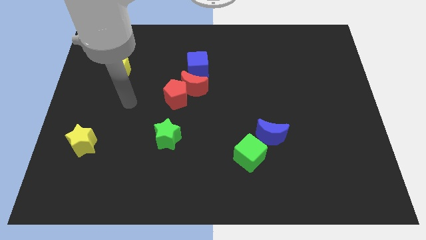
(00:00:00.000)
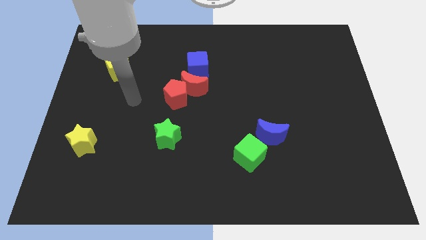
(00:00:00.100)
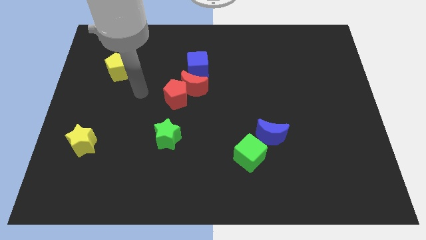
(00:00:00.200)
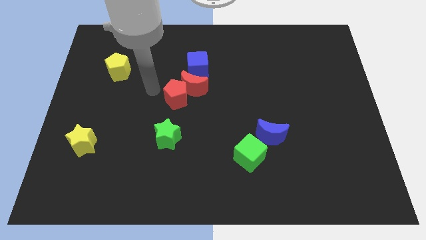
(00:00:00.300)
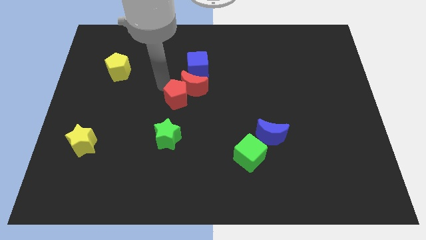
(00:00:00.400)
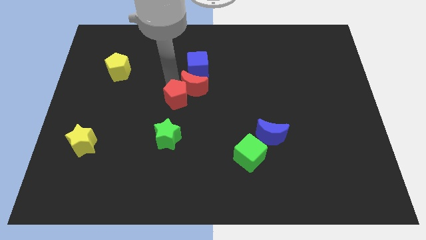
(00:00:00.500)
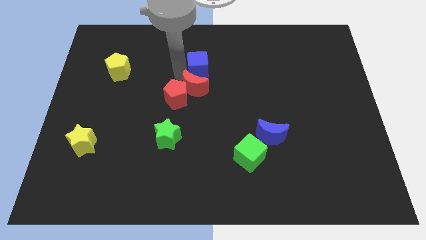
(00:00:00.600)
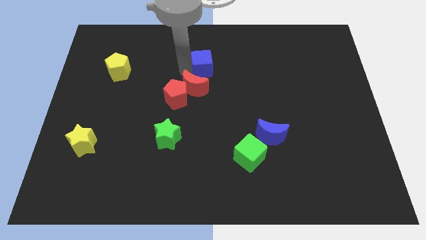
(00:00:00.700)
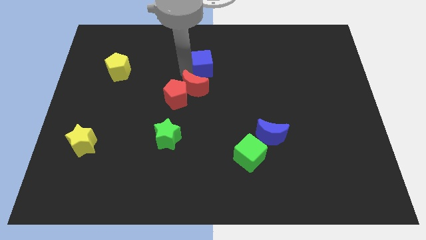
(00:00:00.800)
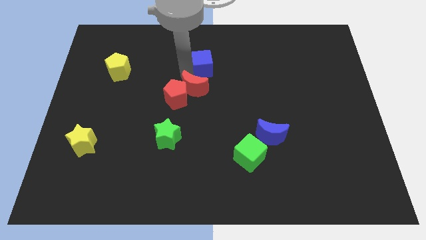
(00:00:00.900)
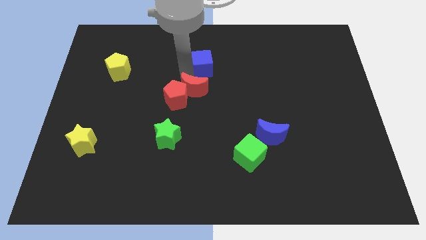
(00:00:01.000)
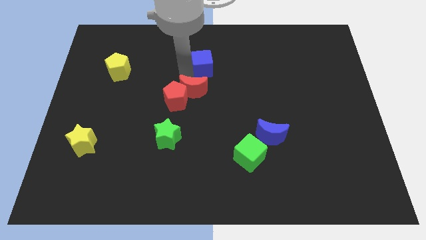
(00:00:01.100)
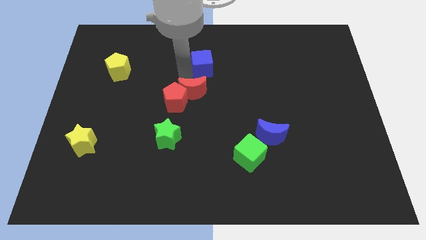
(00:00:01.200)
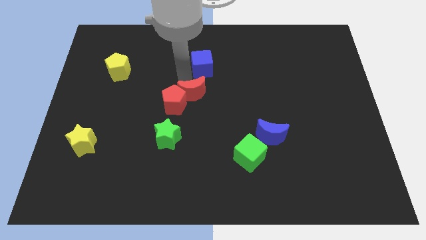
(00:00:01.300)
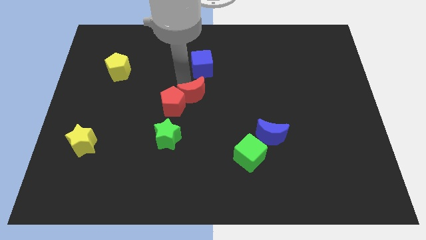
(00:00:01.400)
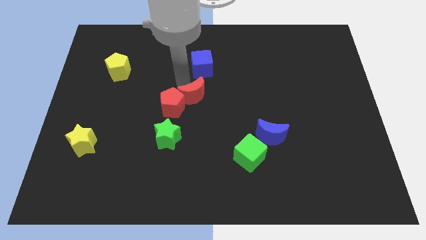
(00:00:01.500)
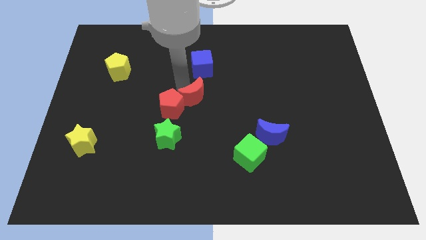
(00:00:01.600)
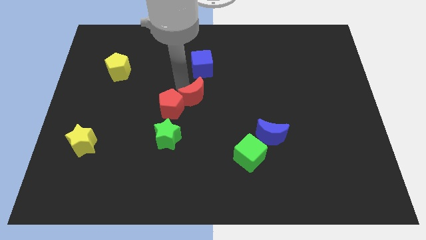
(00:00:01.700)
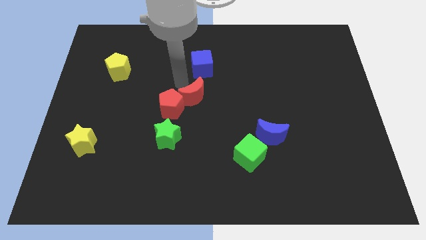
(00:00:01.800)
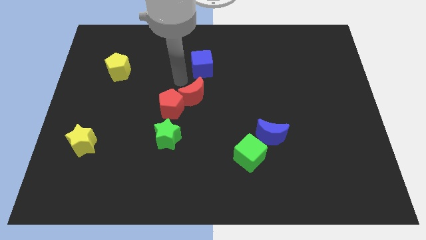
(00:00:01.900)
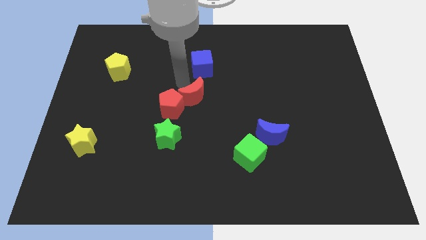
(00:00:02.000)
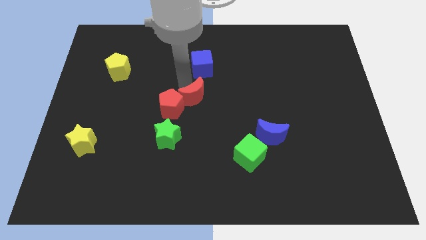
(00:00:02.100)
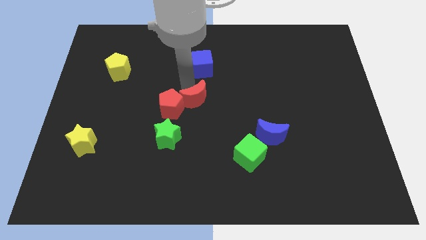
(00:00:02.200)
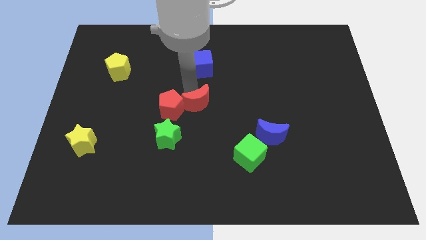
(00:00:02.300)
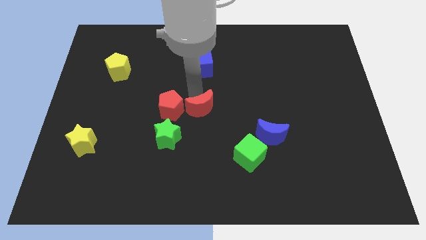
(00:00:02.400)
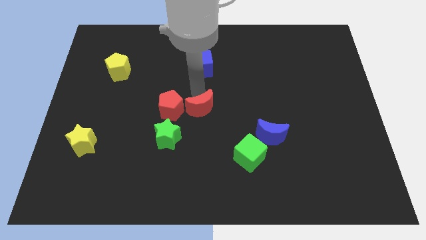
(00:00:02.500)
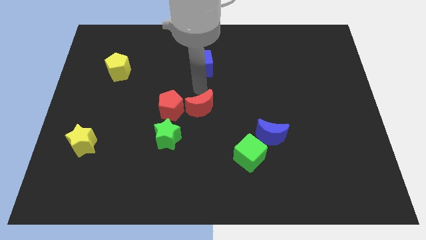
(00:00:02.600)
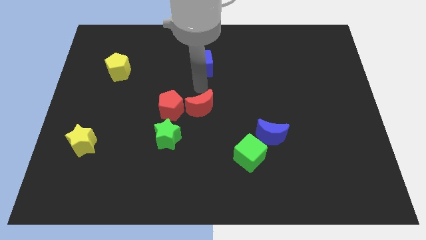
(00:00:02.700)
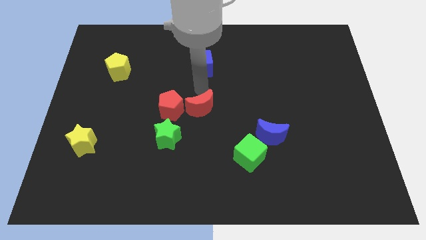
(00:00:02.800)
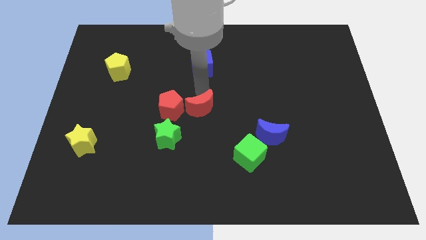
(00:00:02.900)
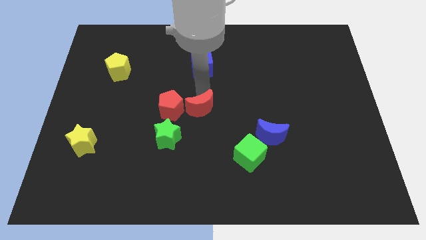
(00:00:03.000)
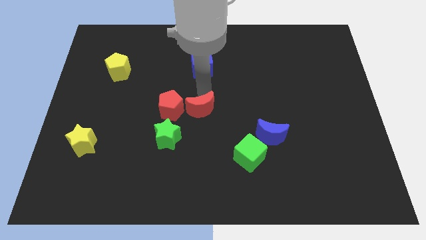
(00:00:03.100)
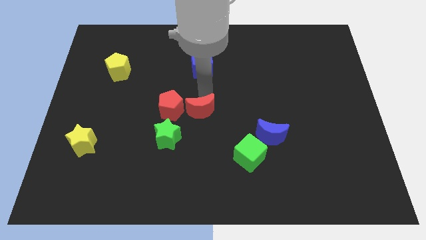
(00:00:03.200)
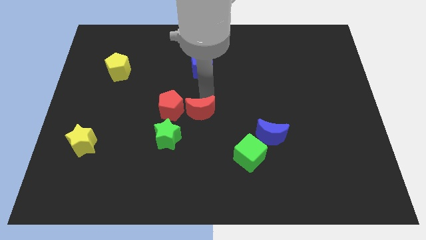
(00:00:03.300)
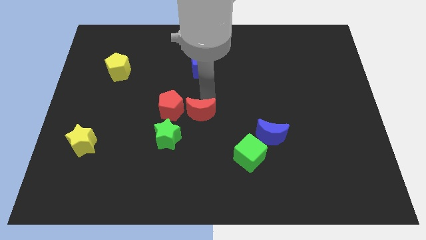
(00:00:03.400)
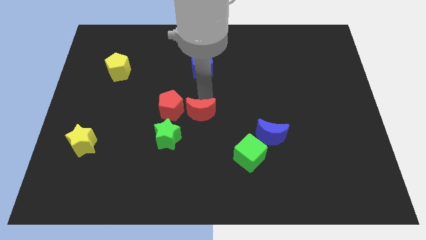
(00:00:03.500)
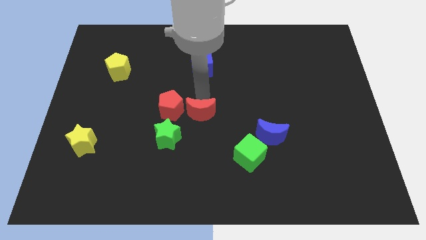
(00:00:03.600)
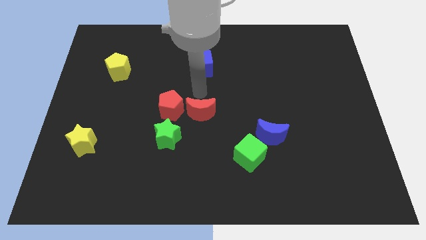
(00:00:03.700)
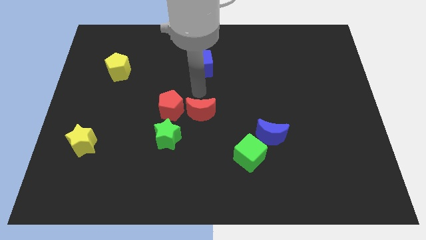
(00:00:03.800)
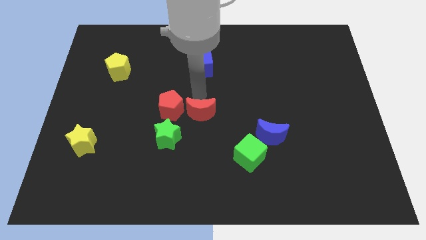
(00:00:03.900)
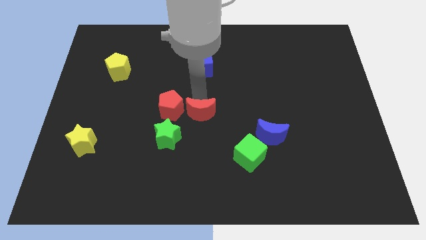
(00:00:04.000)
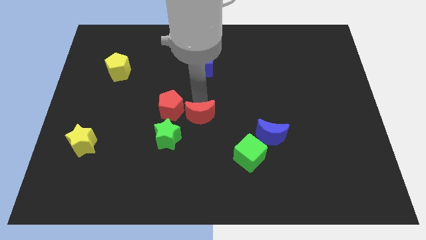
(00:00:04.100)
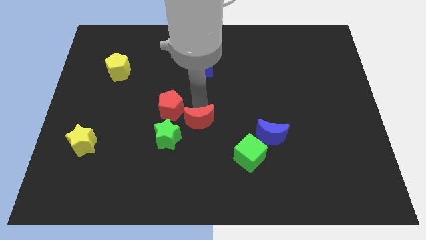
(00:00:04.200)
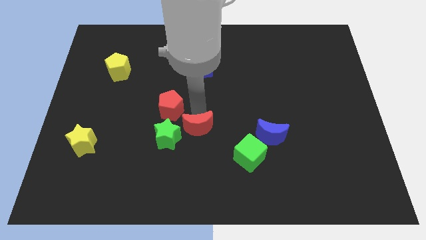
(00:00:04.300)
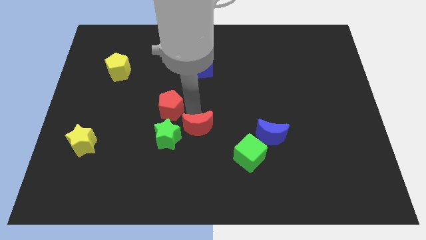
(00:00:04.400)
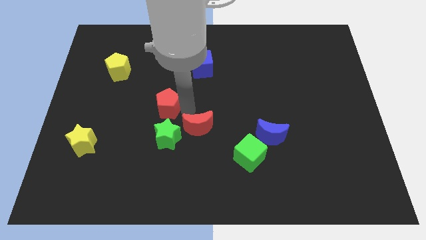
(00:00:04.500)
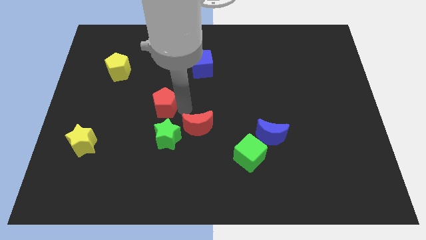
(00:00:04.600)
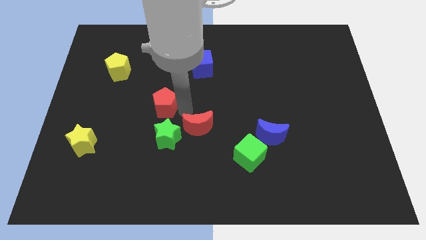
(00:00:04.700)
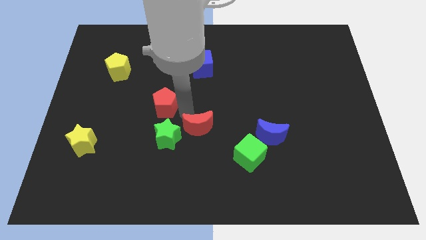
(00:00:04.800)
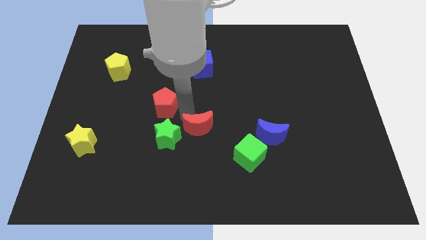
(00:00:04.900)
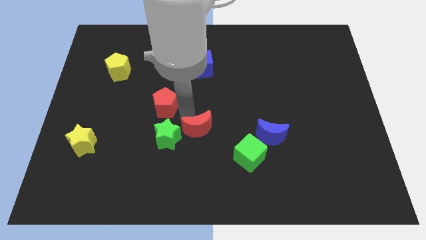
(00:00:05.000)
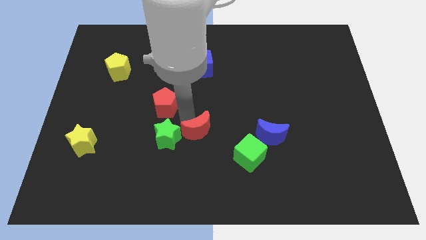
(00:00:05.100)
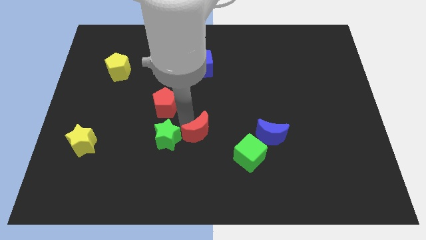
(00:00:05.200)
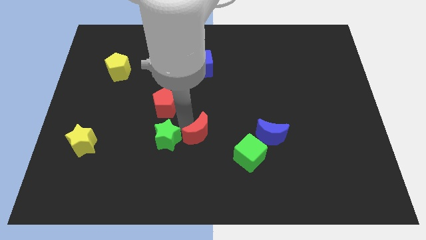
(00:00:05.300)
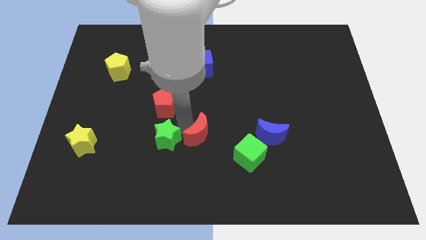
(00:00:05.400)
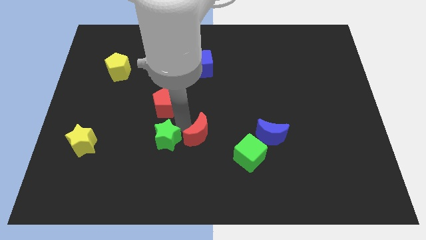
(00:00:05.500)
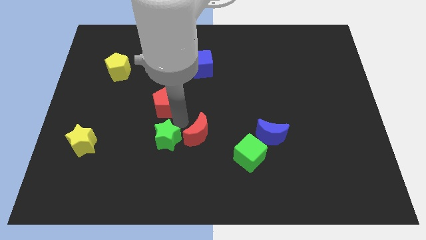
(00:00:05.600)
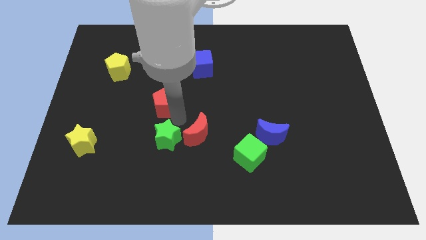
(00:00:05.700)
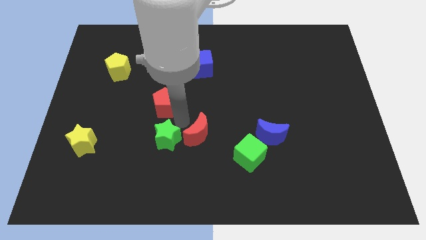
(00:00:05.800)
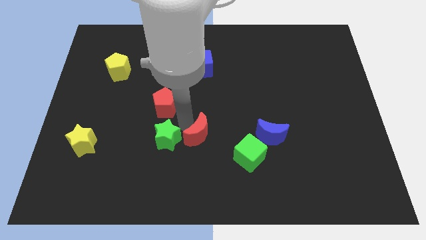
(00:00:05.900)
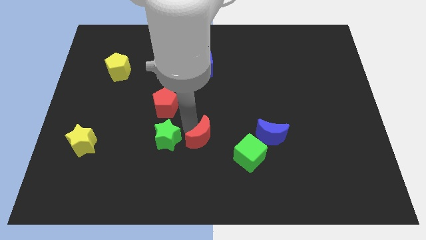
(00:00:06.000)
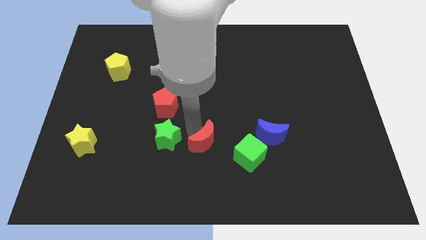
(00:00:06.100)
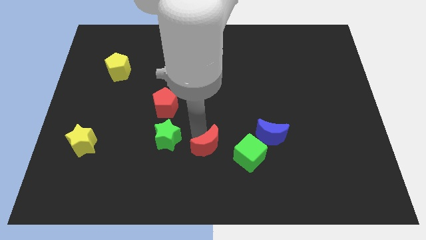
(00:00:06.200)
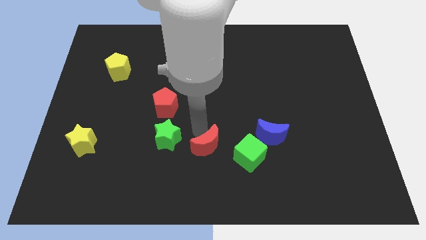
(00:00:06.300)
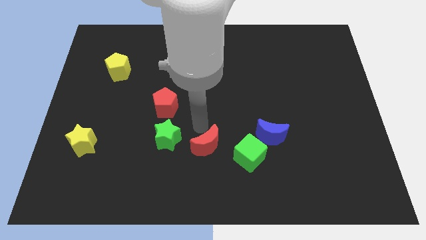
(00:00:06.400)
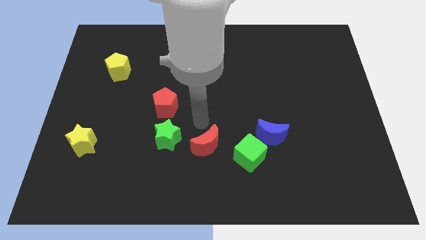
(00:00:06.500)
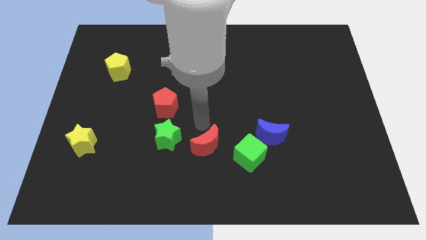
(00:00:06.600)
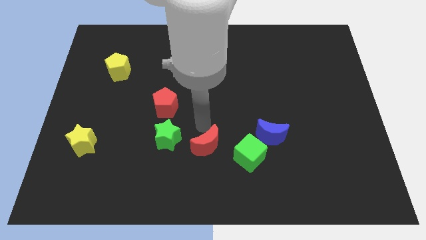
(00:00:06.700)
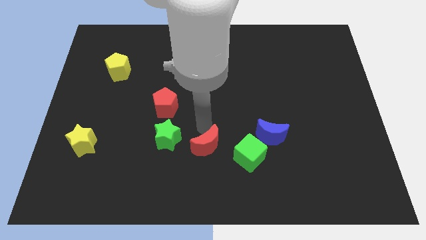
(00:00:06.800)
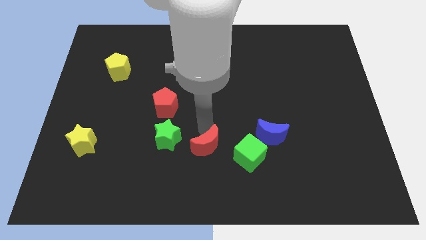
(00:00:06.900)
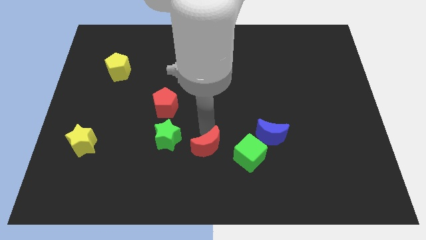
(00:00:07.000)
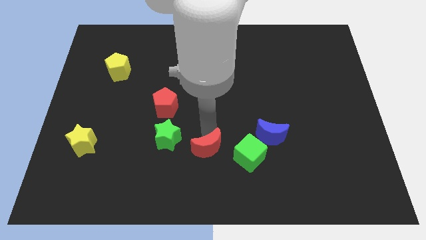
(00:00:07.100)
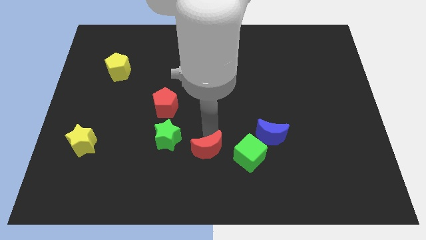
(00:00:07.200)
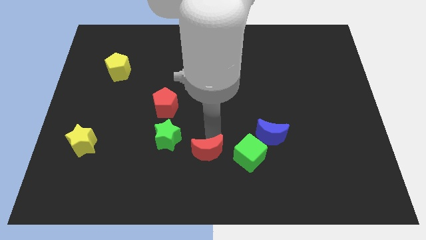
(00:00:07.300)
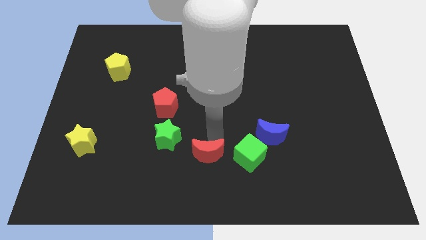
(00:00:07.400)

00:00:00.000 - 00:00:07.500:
push the red moon to the bottom side
